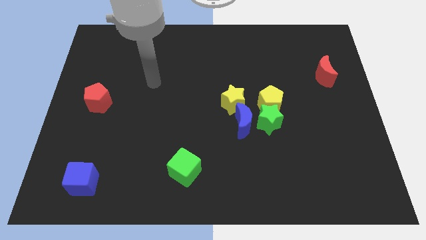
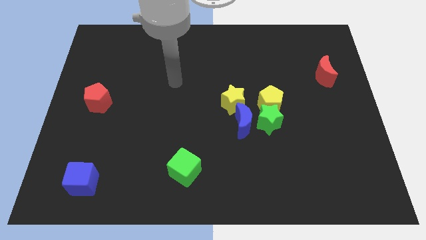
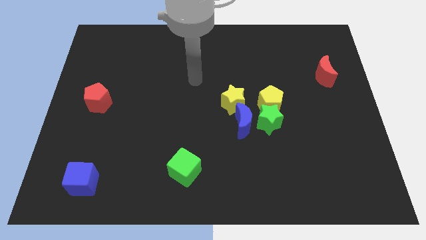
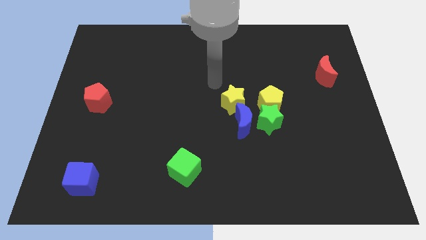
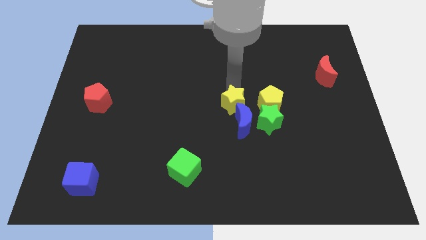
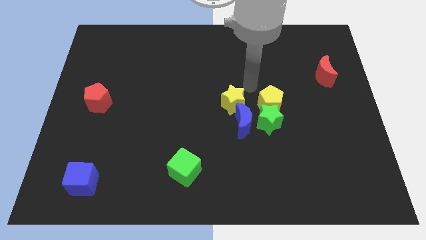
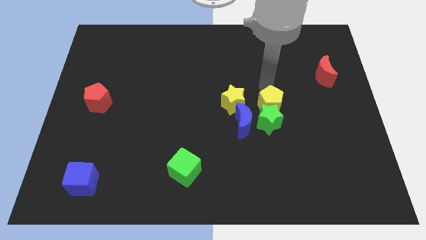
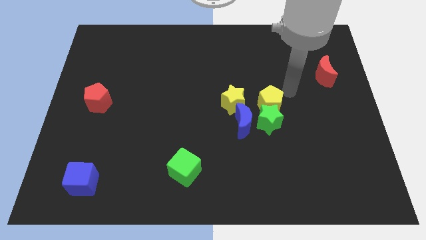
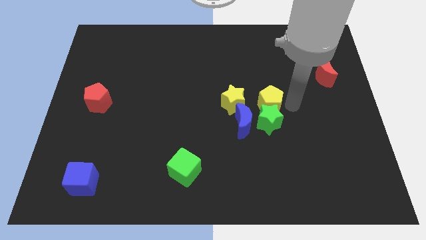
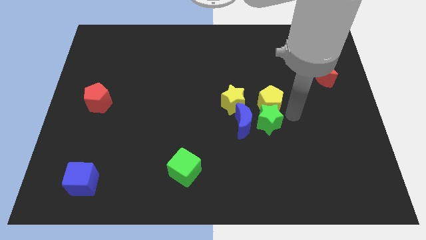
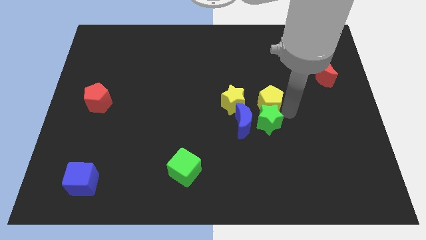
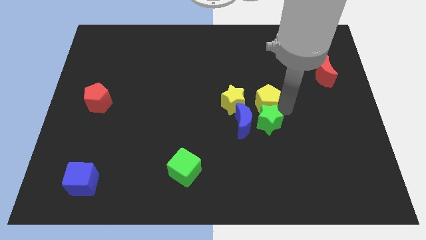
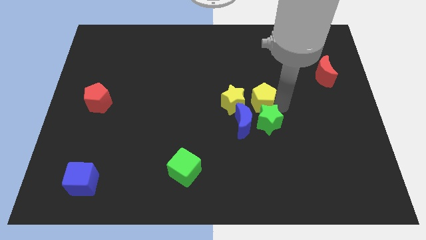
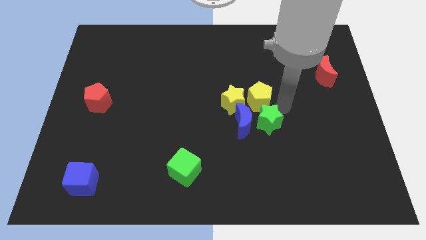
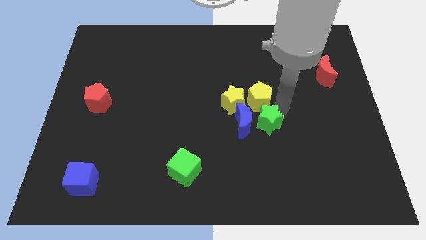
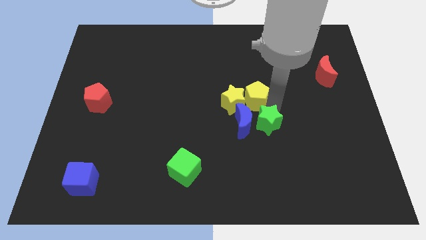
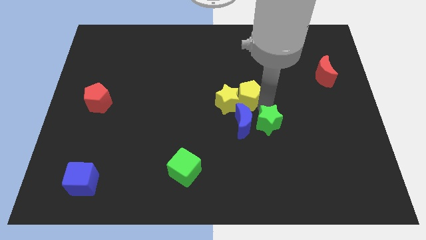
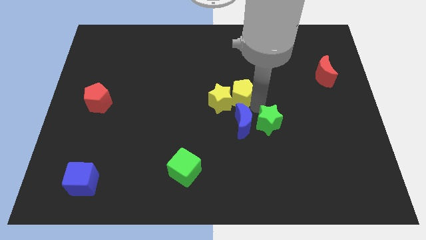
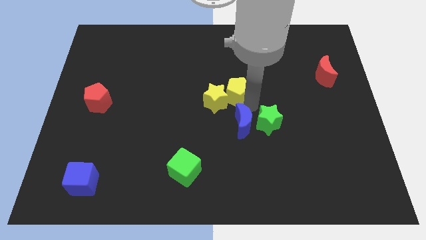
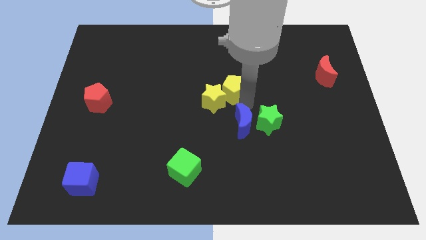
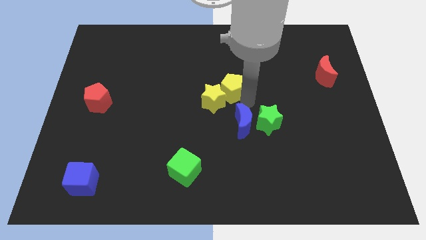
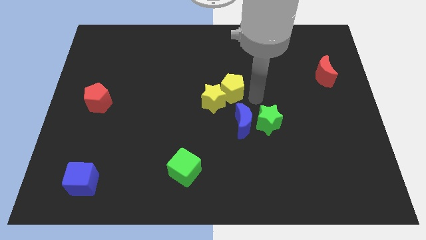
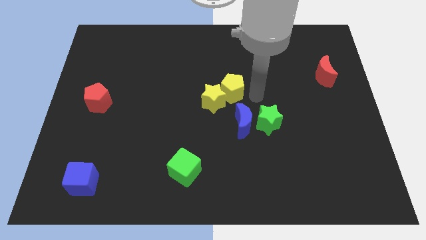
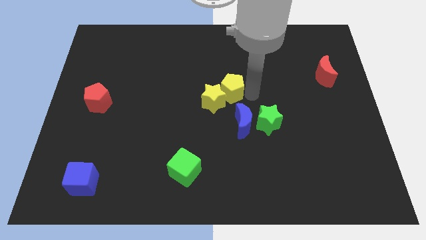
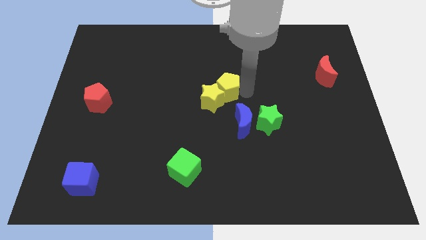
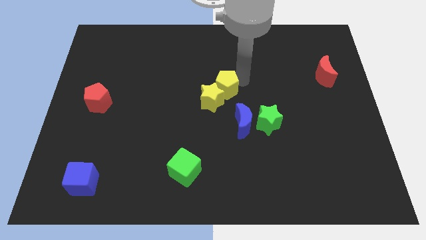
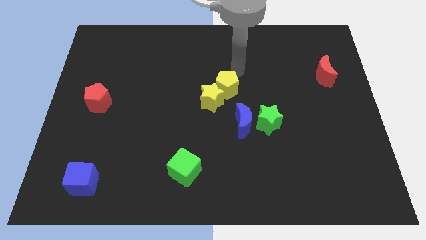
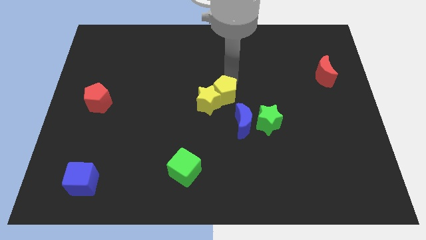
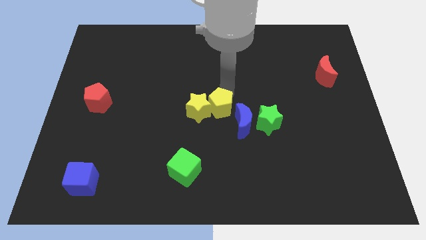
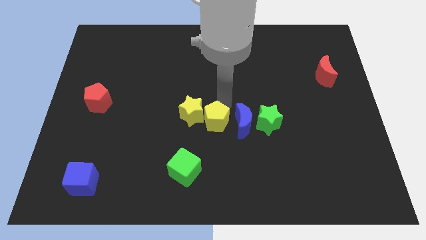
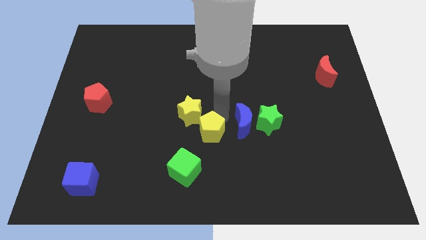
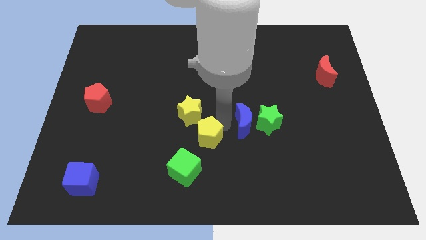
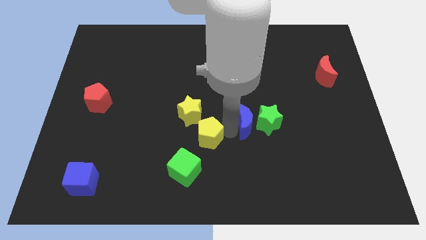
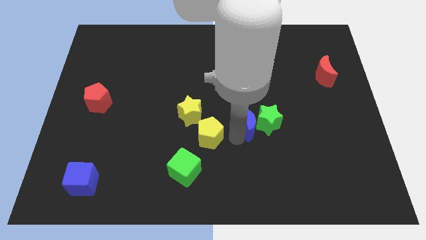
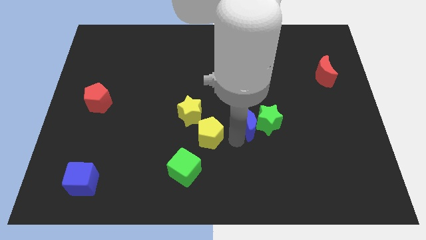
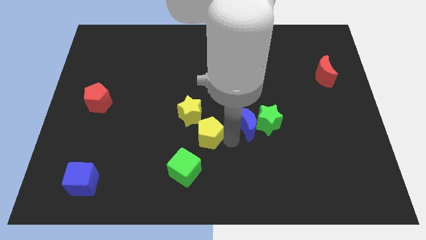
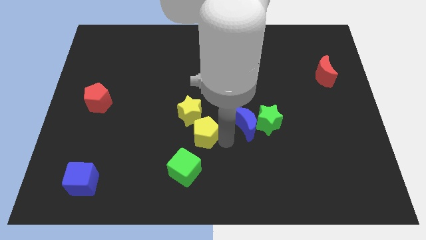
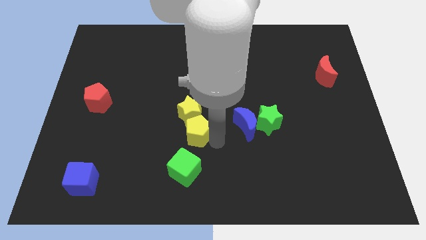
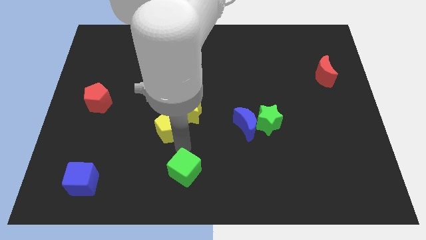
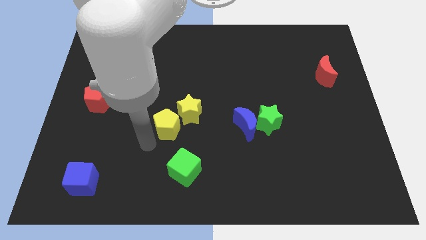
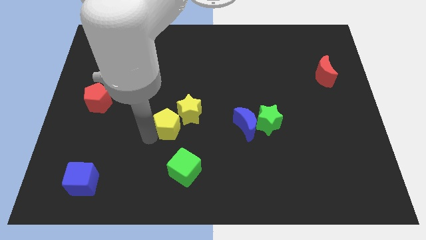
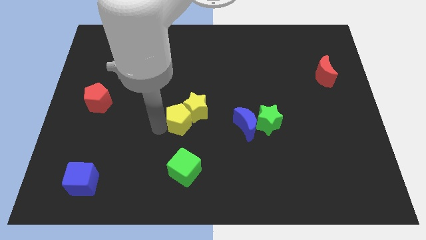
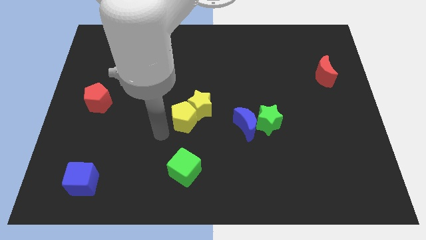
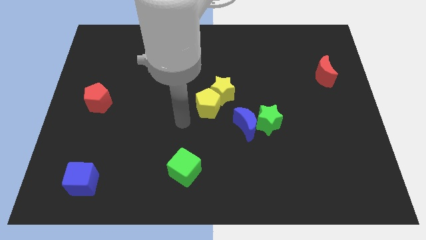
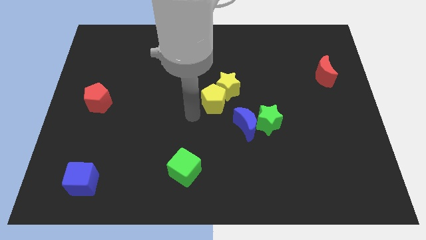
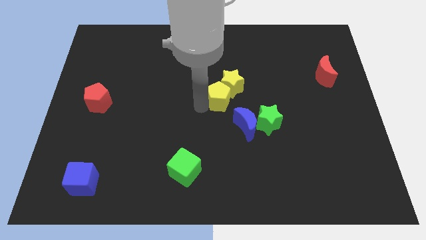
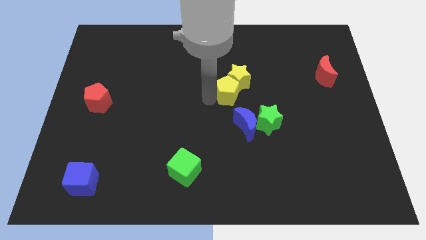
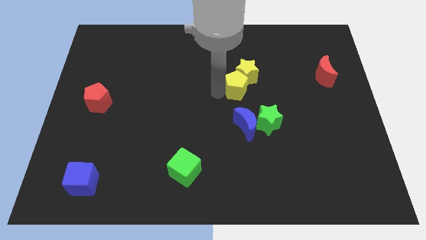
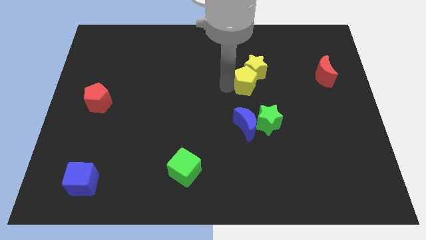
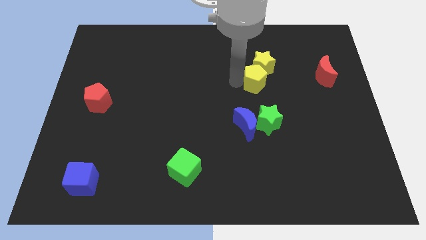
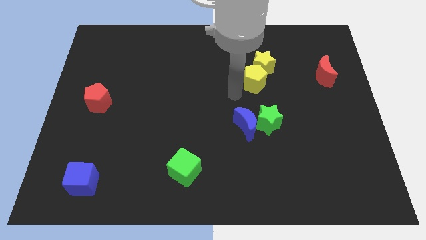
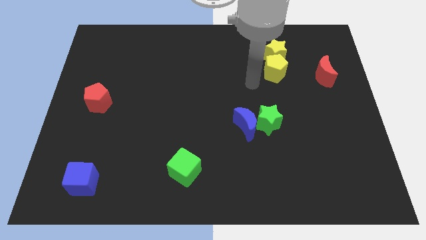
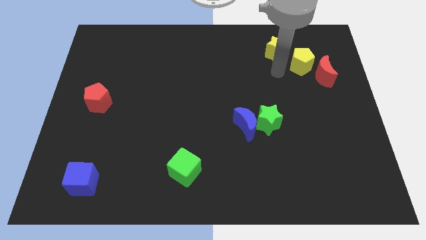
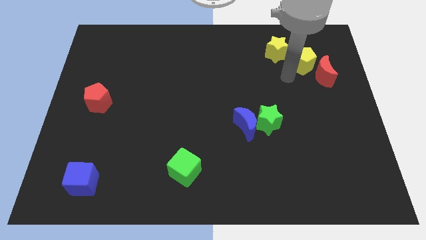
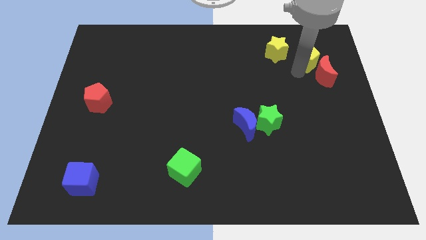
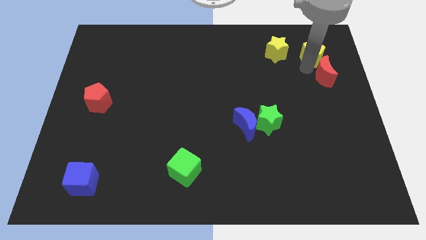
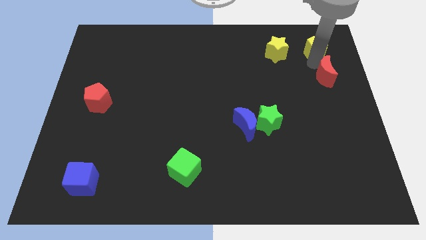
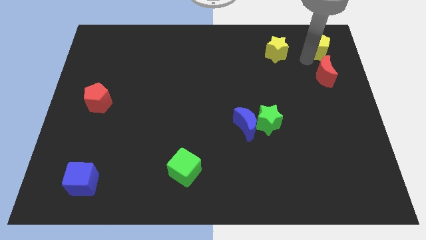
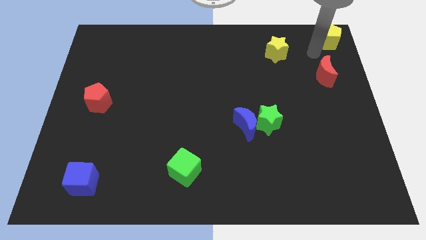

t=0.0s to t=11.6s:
put the yellow pentagon to the top right of the board

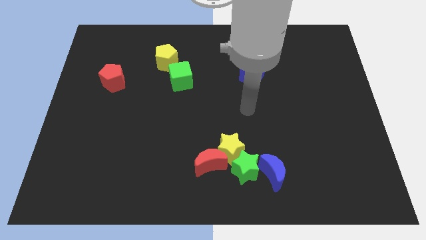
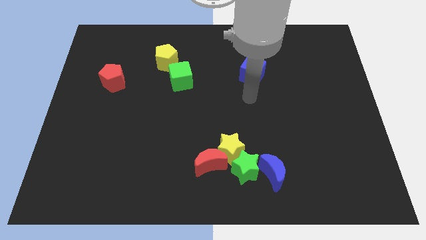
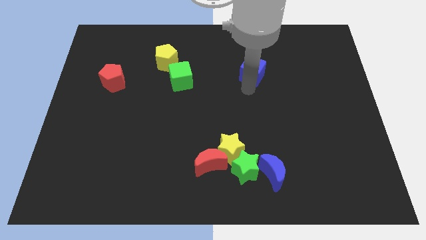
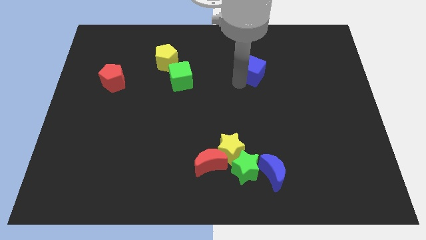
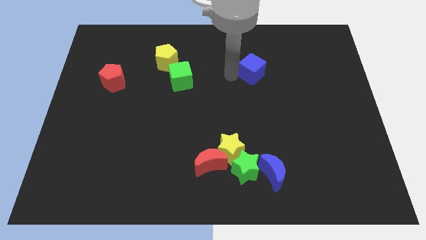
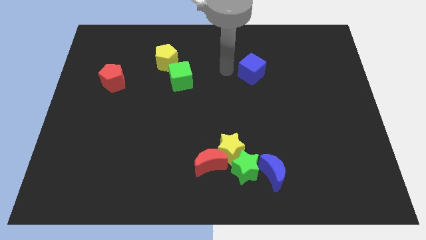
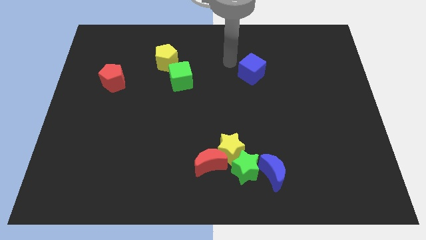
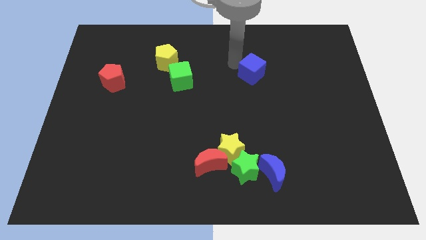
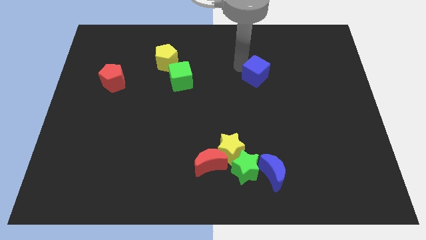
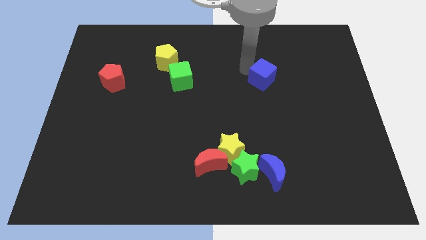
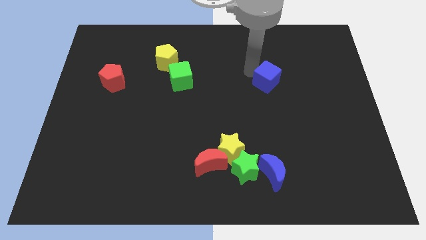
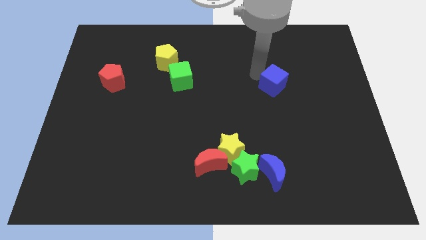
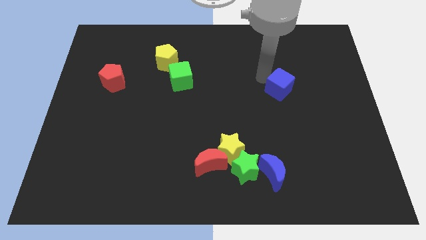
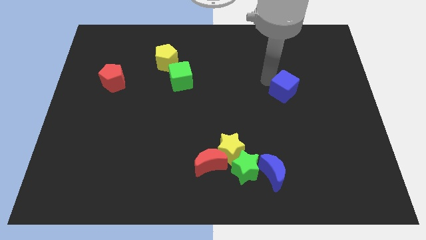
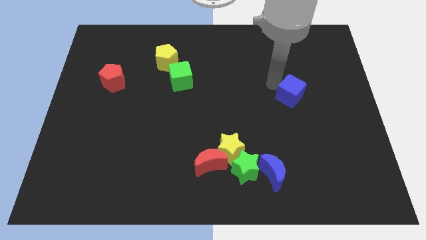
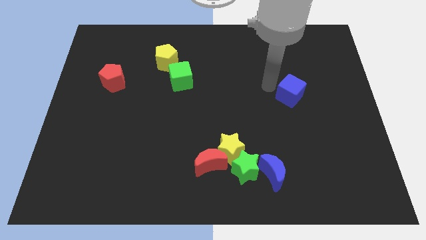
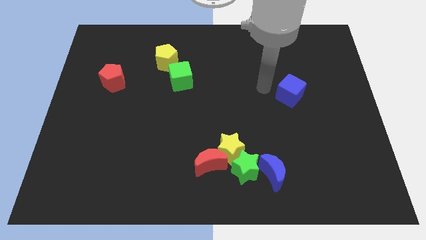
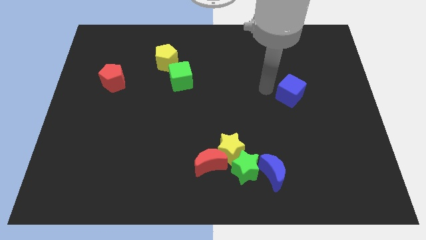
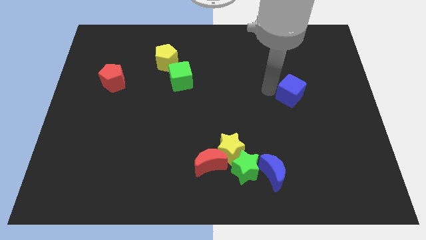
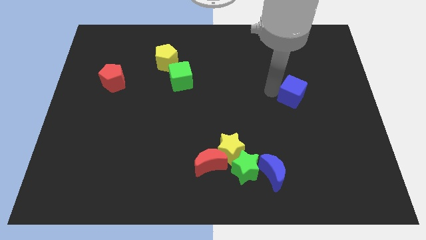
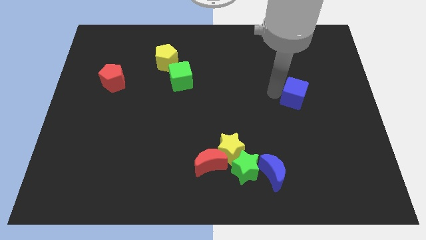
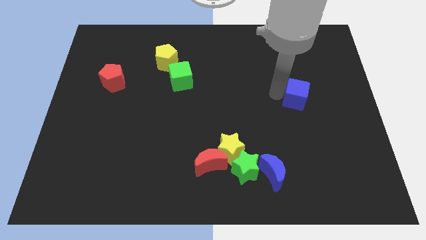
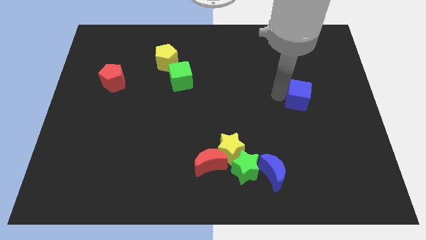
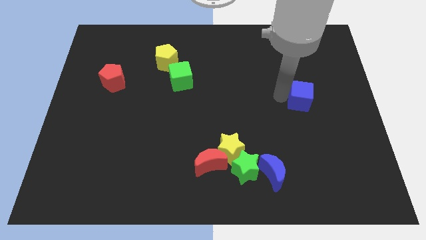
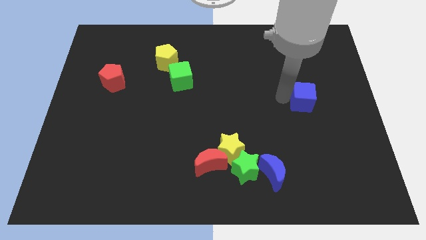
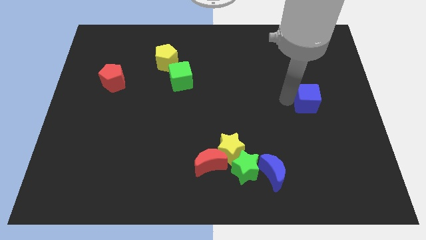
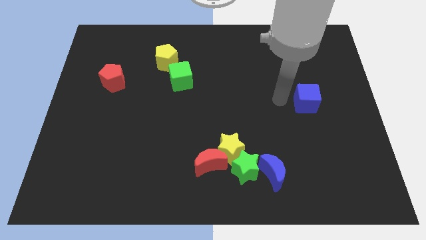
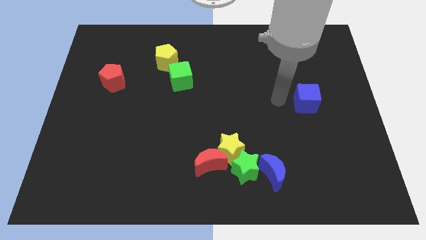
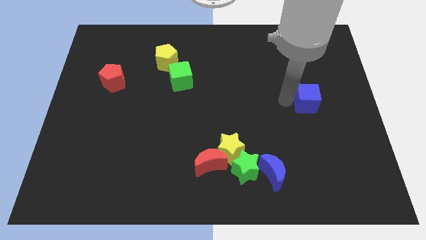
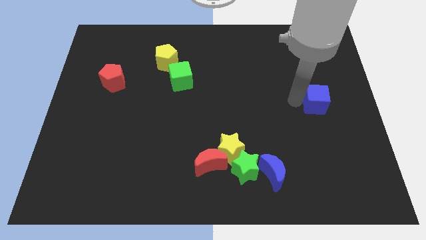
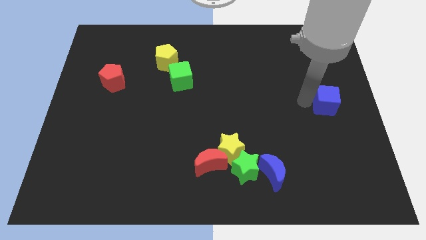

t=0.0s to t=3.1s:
slide the blue cube to the center right
